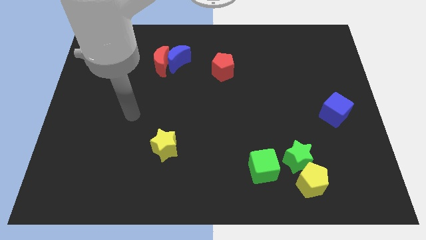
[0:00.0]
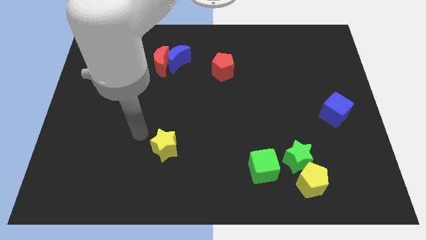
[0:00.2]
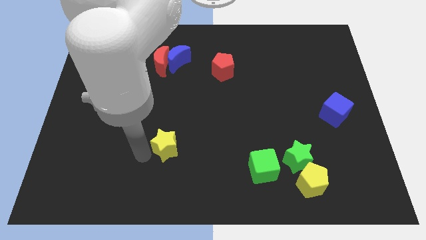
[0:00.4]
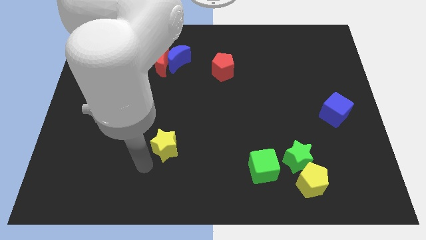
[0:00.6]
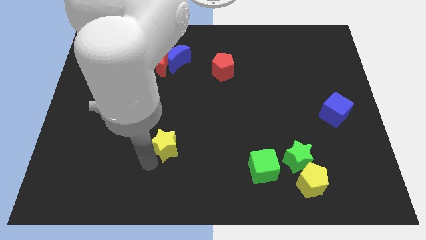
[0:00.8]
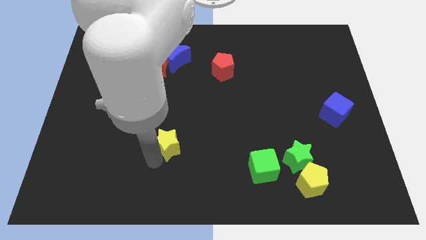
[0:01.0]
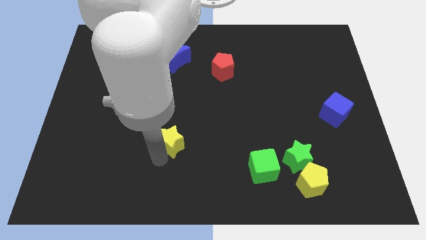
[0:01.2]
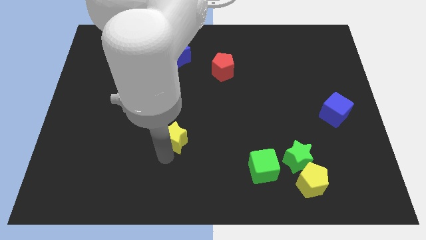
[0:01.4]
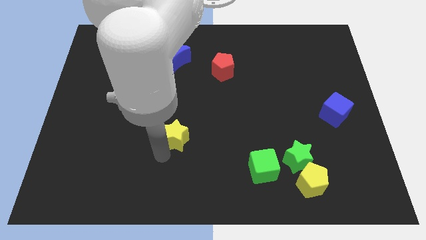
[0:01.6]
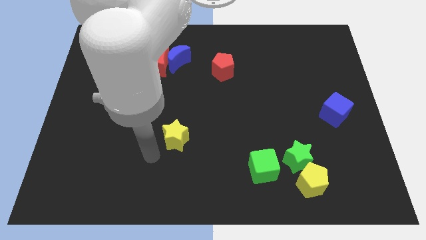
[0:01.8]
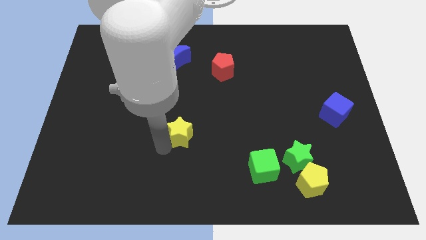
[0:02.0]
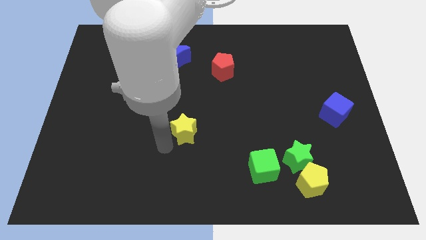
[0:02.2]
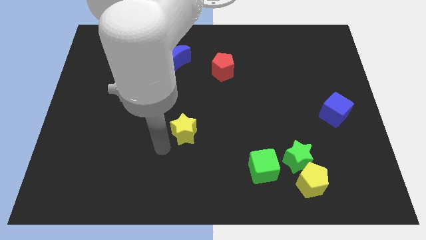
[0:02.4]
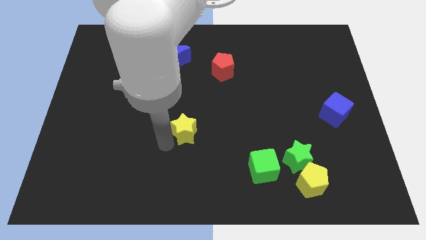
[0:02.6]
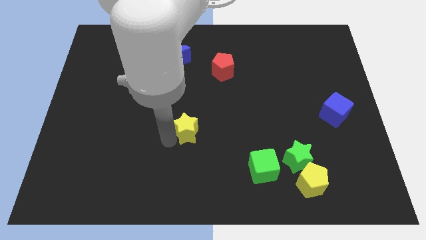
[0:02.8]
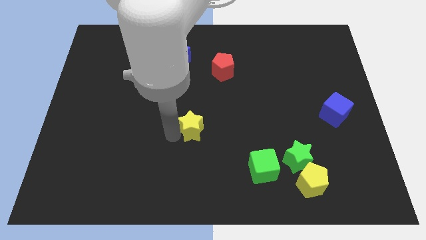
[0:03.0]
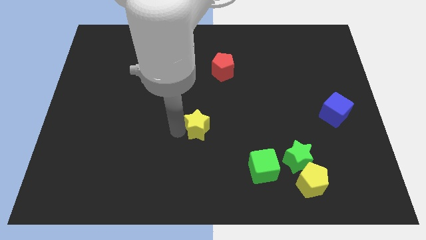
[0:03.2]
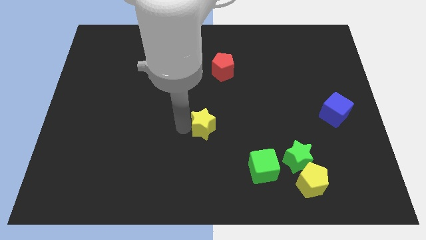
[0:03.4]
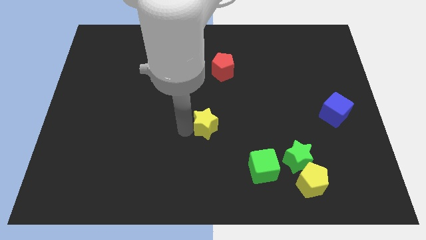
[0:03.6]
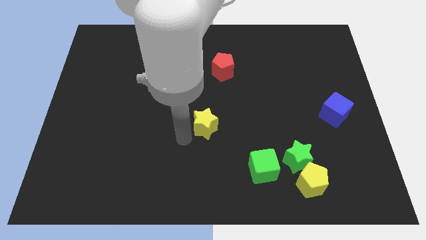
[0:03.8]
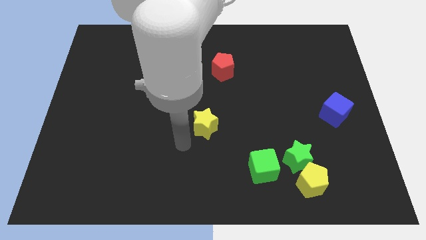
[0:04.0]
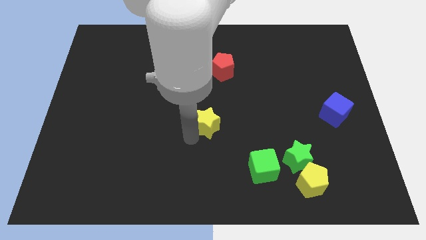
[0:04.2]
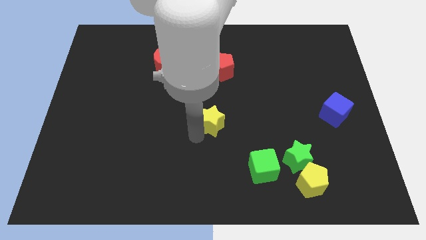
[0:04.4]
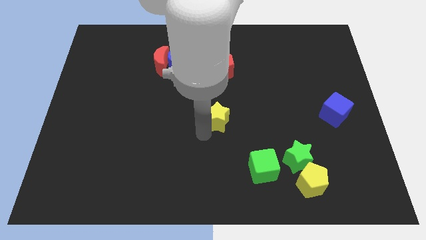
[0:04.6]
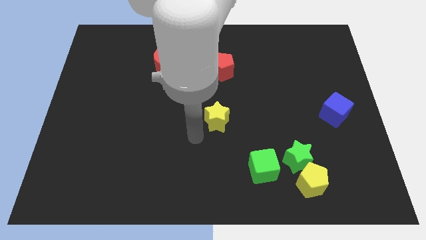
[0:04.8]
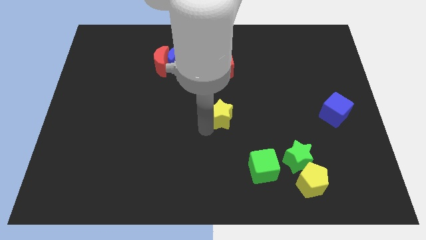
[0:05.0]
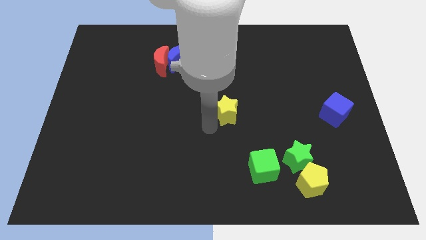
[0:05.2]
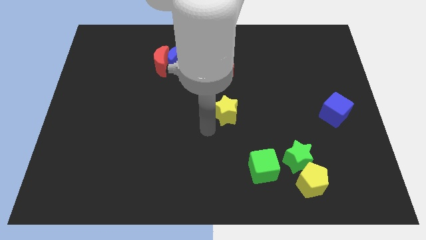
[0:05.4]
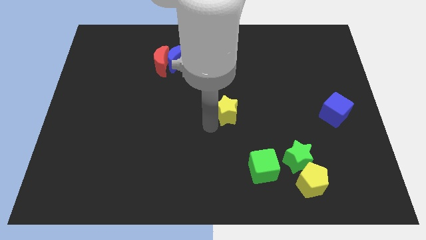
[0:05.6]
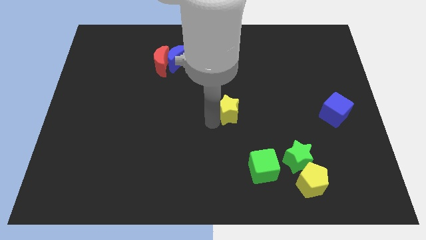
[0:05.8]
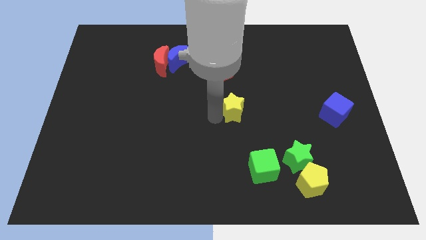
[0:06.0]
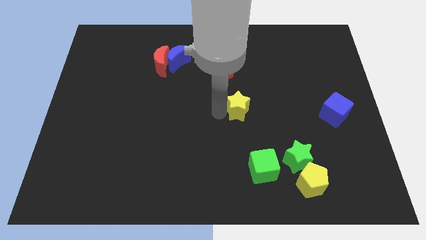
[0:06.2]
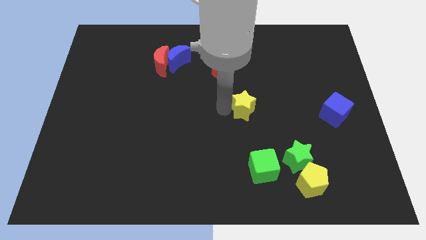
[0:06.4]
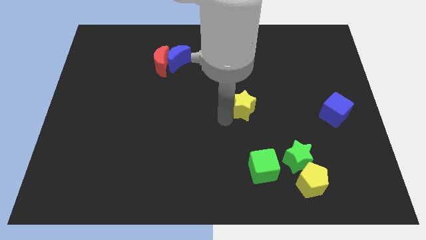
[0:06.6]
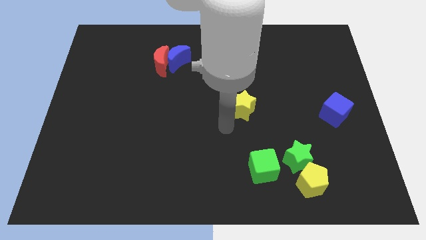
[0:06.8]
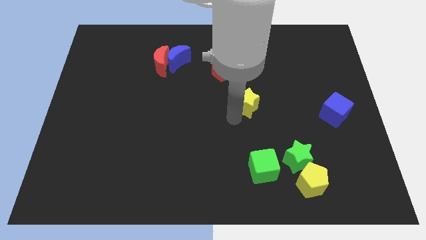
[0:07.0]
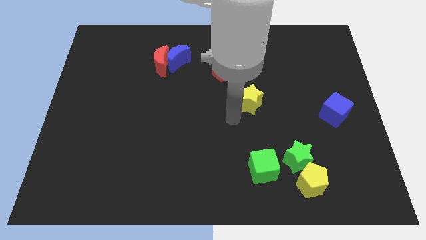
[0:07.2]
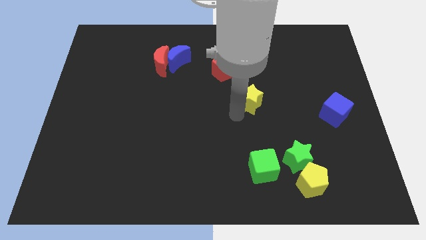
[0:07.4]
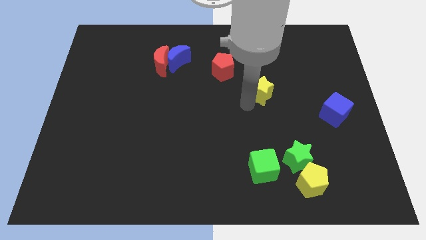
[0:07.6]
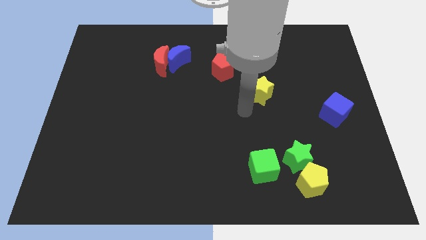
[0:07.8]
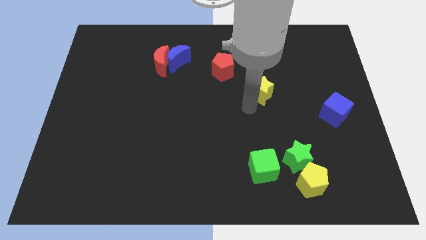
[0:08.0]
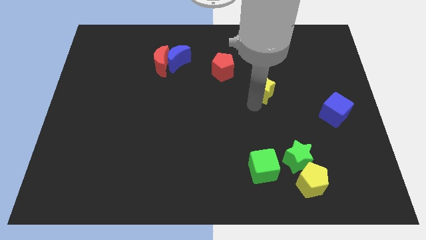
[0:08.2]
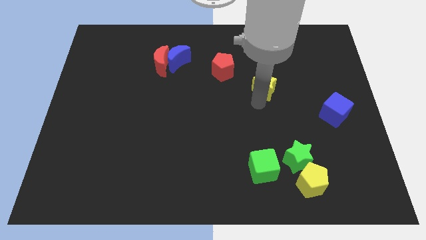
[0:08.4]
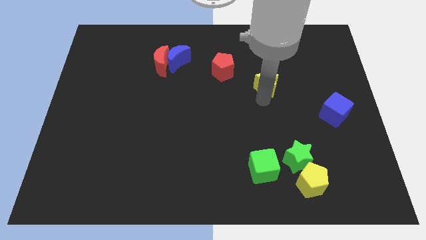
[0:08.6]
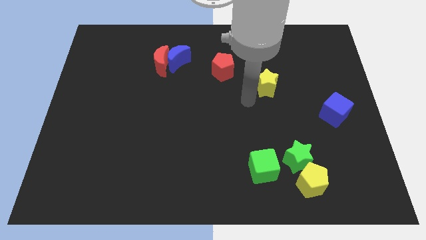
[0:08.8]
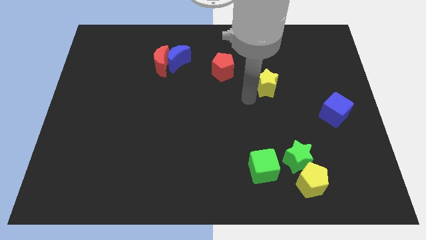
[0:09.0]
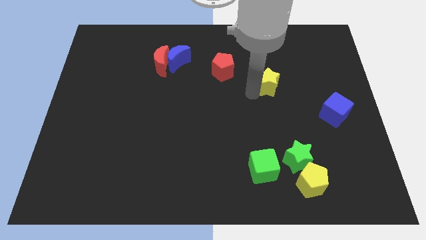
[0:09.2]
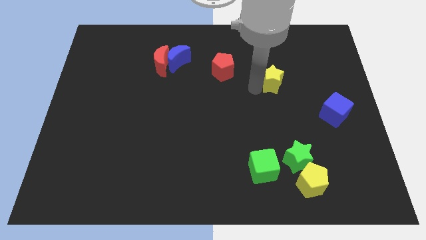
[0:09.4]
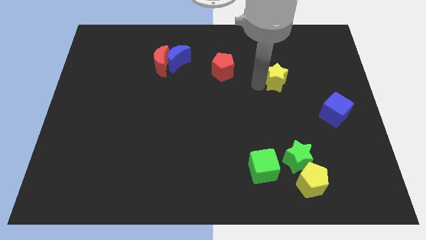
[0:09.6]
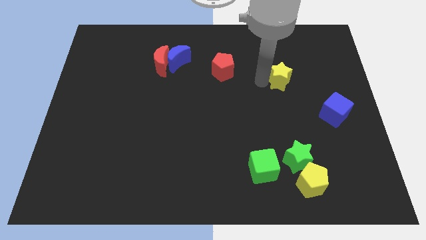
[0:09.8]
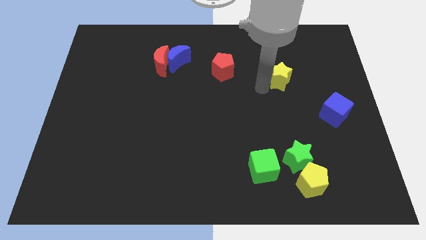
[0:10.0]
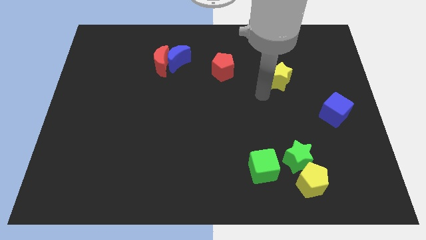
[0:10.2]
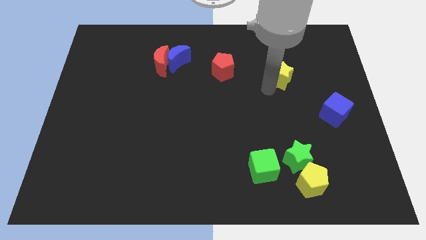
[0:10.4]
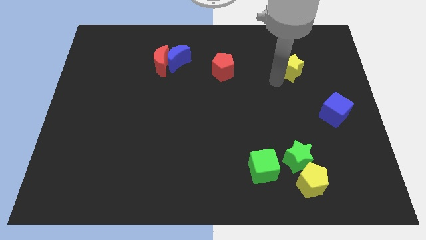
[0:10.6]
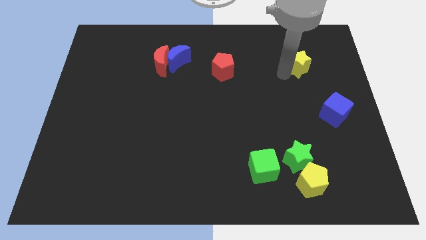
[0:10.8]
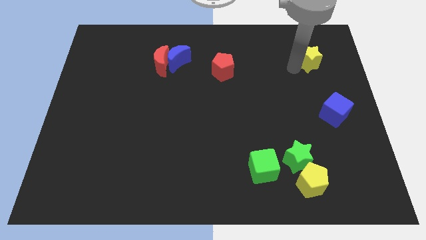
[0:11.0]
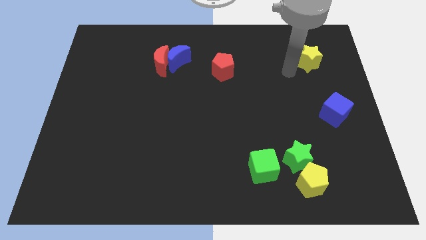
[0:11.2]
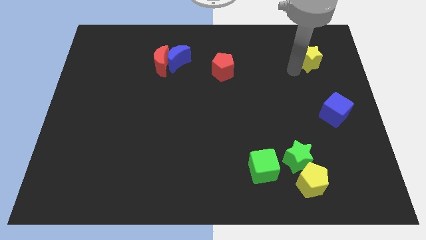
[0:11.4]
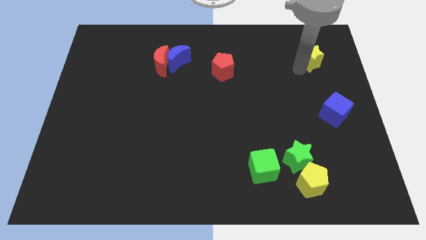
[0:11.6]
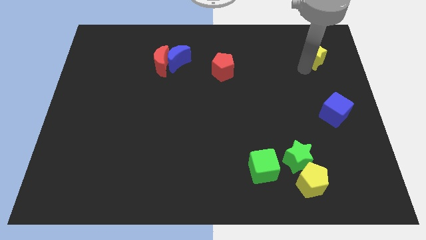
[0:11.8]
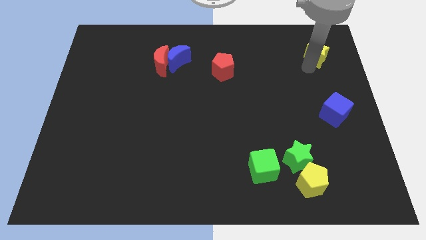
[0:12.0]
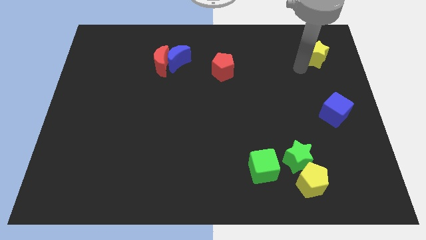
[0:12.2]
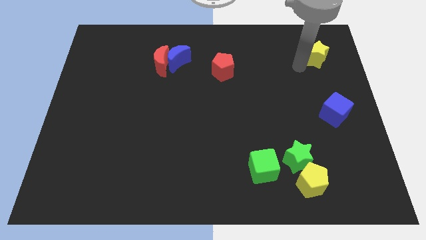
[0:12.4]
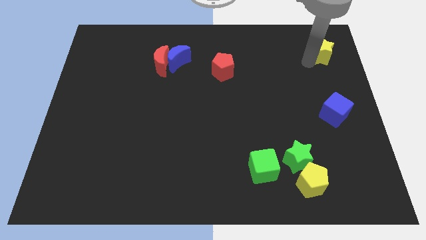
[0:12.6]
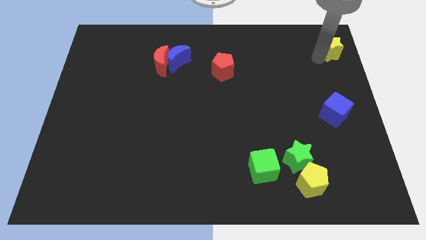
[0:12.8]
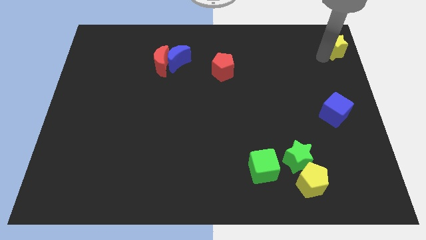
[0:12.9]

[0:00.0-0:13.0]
slide the yellow star to the top right of the board
